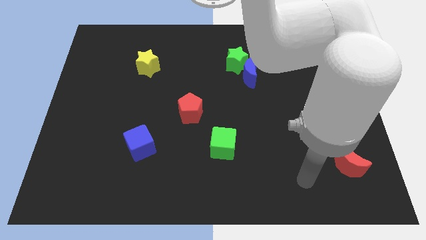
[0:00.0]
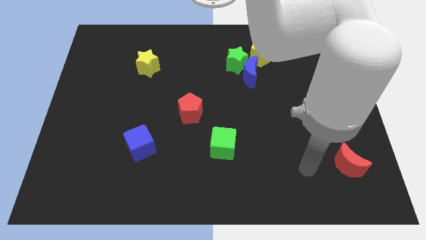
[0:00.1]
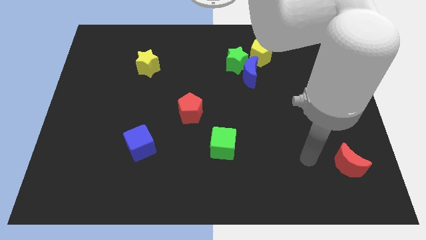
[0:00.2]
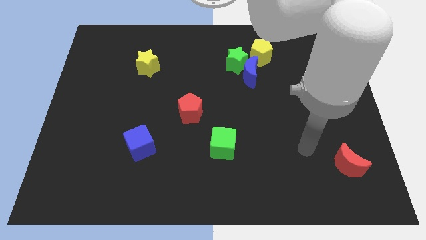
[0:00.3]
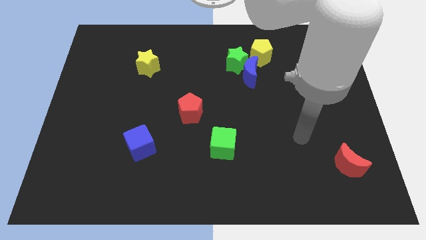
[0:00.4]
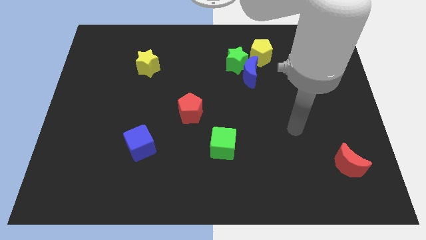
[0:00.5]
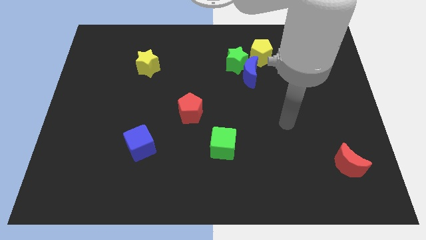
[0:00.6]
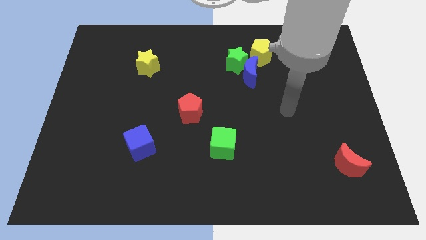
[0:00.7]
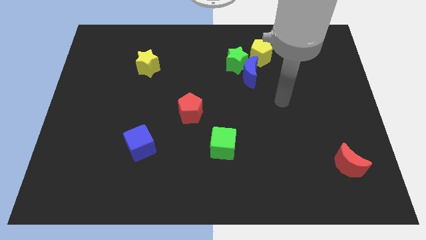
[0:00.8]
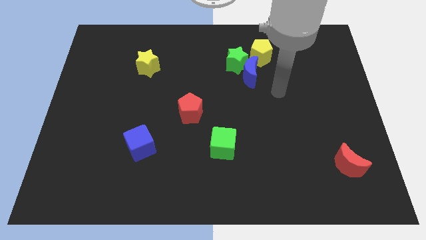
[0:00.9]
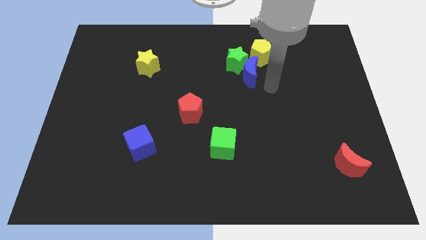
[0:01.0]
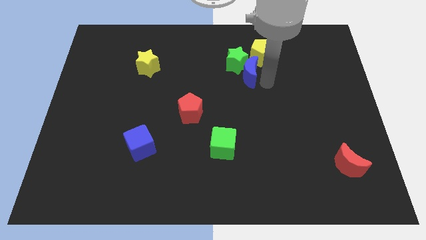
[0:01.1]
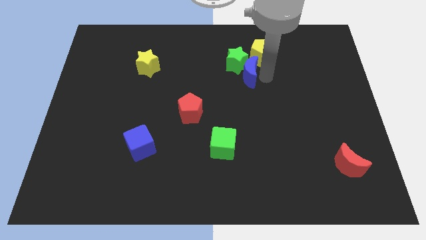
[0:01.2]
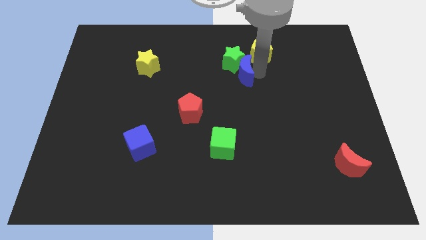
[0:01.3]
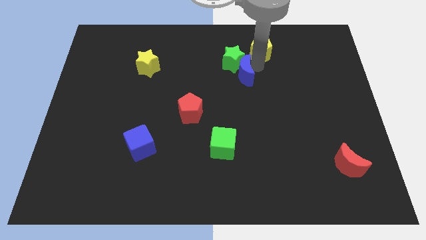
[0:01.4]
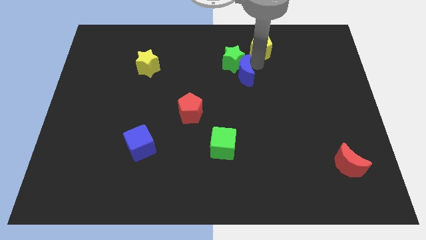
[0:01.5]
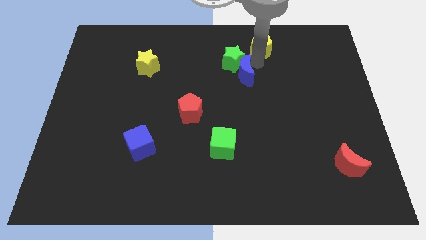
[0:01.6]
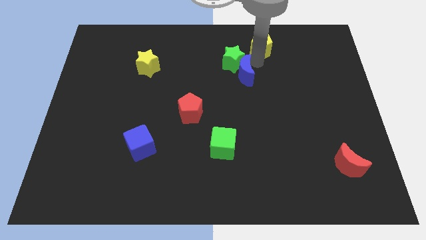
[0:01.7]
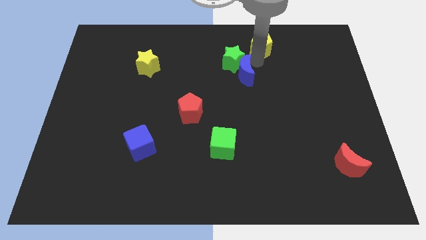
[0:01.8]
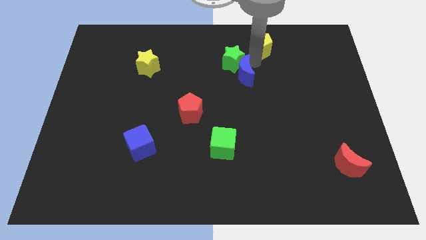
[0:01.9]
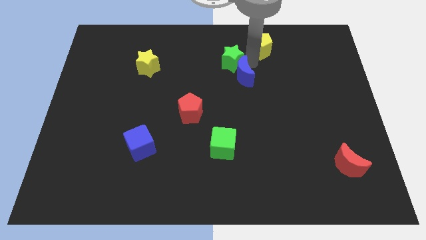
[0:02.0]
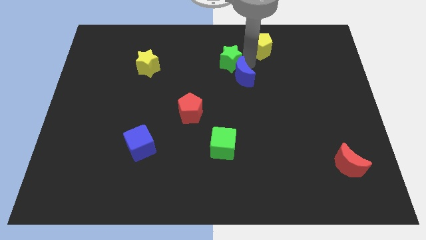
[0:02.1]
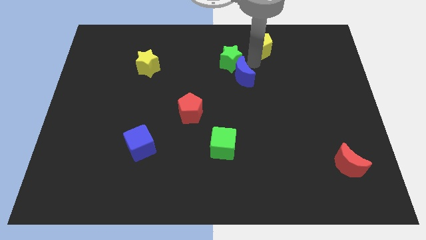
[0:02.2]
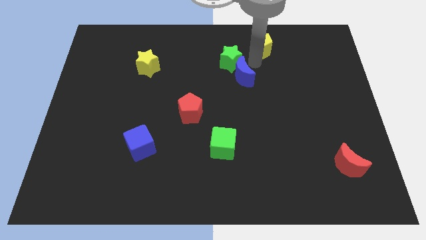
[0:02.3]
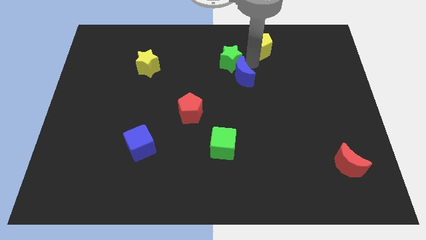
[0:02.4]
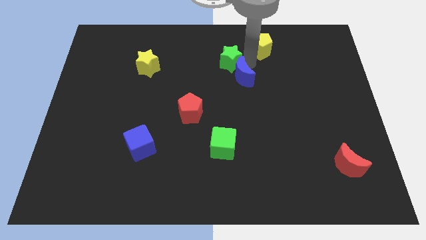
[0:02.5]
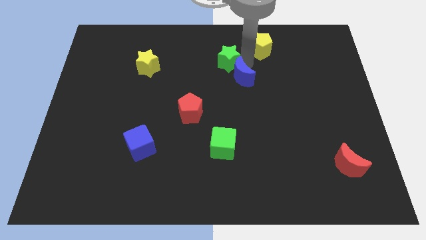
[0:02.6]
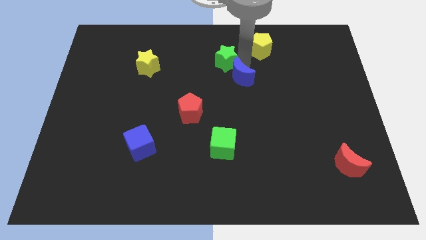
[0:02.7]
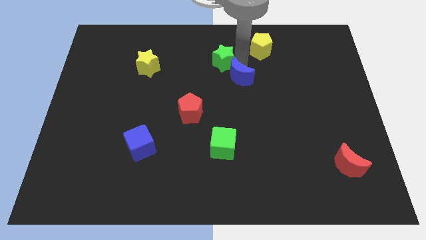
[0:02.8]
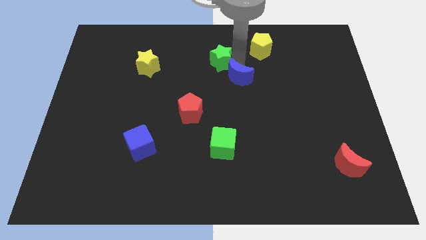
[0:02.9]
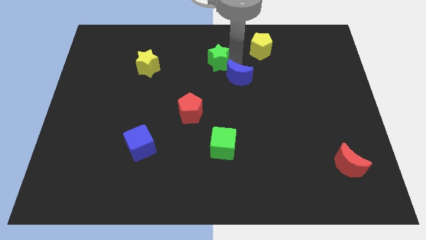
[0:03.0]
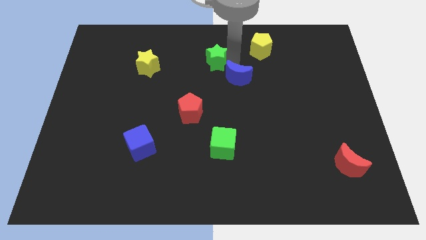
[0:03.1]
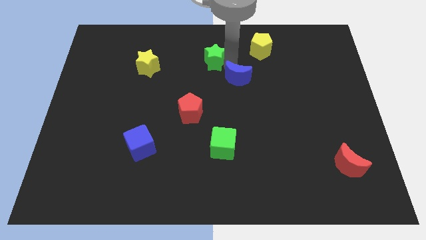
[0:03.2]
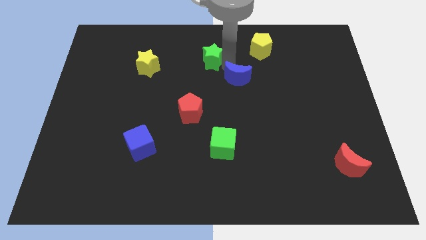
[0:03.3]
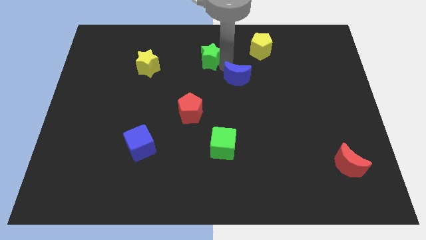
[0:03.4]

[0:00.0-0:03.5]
move the green star away from the blue moon and yellow pentagon

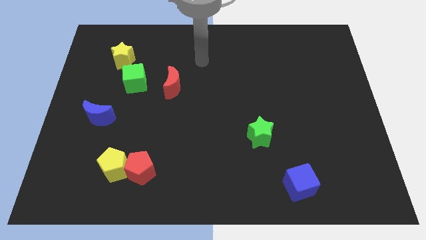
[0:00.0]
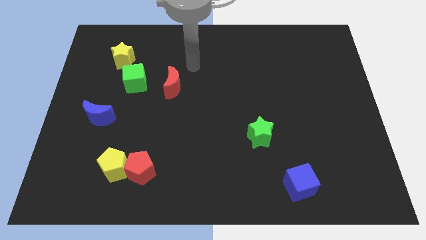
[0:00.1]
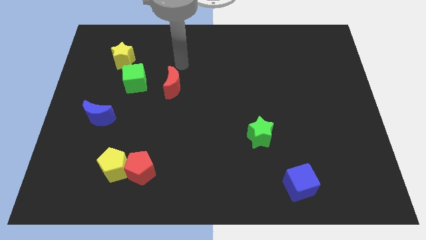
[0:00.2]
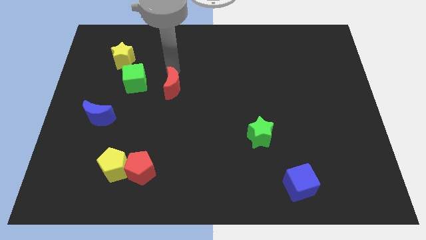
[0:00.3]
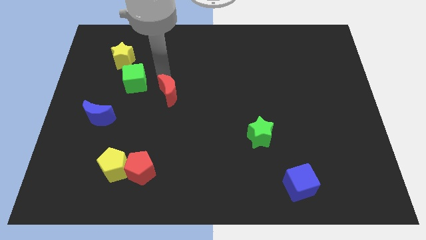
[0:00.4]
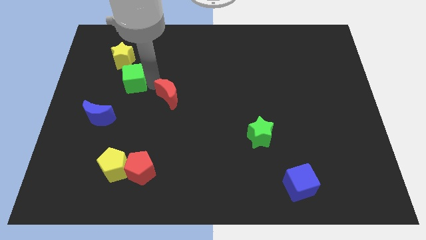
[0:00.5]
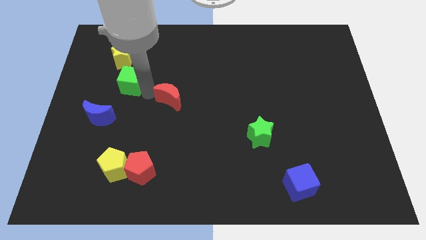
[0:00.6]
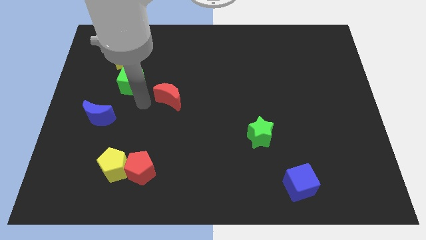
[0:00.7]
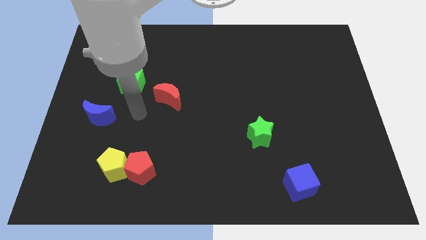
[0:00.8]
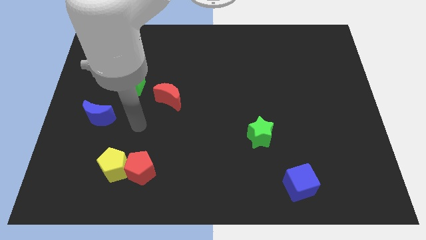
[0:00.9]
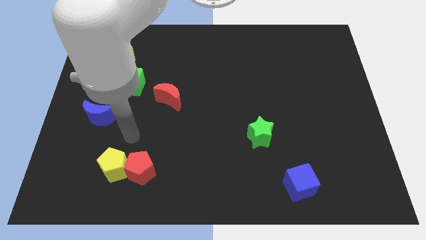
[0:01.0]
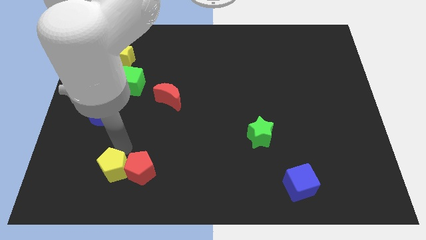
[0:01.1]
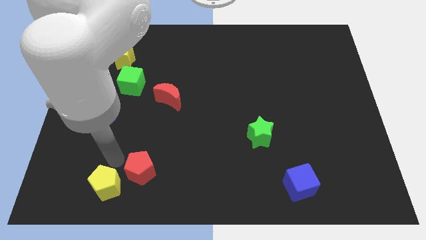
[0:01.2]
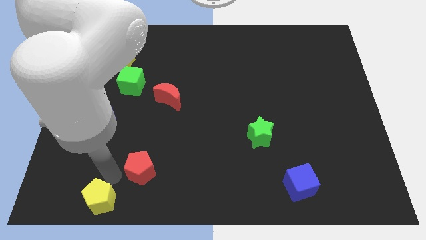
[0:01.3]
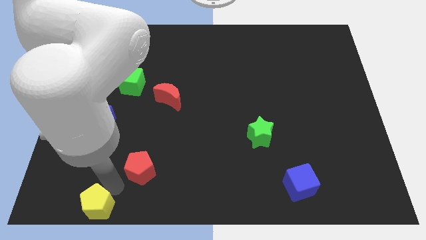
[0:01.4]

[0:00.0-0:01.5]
move the red pentagon away from the yellow pentagon

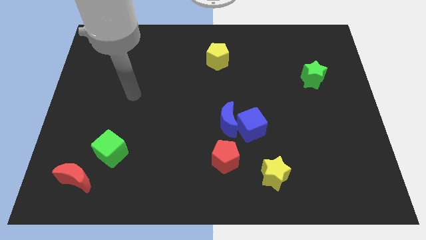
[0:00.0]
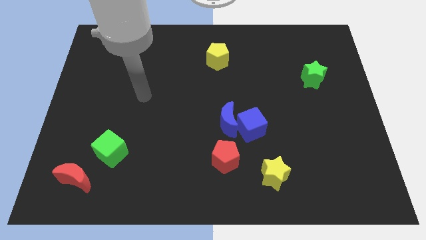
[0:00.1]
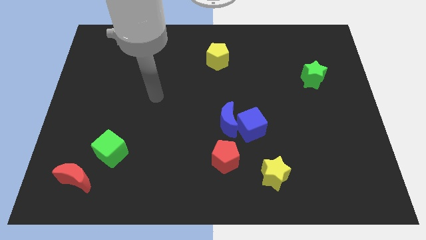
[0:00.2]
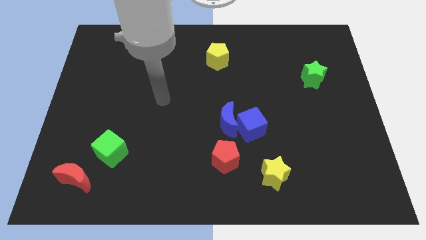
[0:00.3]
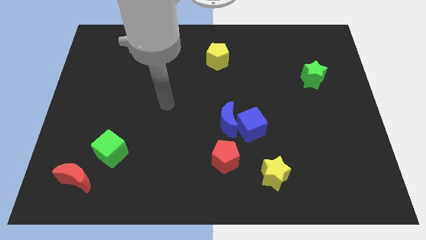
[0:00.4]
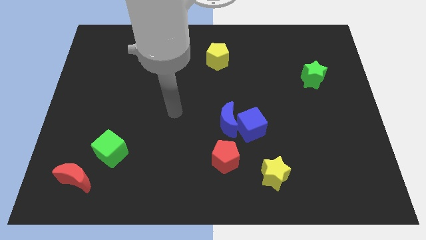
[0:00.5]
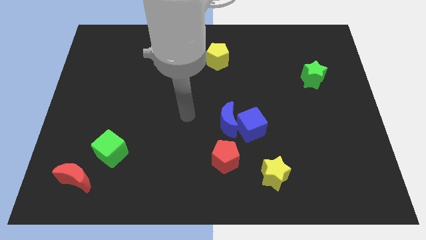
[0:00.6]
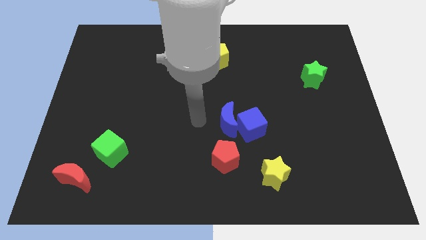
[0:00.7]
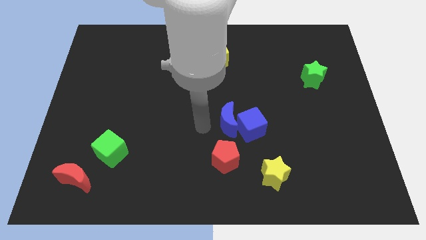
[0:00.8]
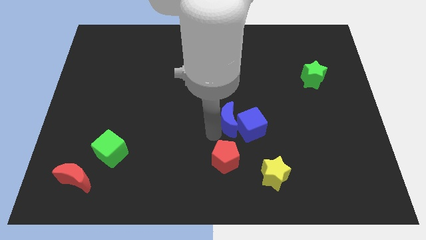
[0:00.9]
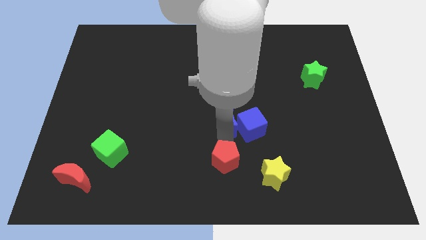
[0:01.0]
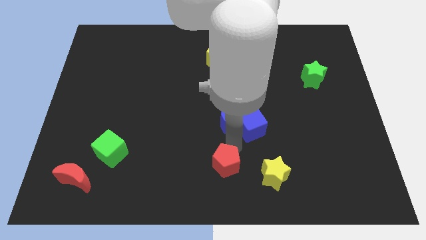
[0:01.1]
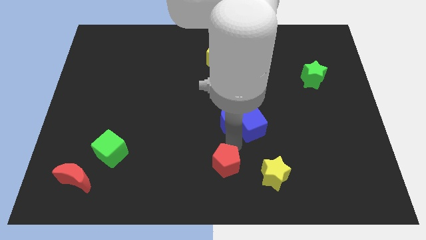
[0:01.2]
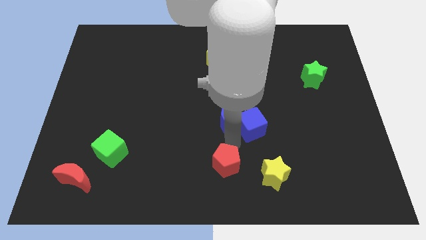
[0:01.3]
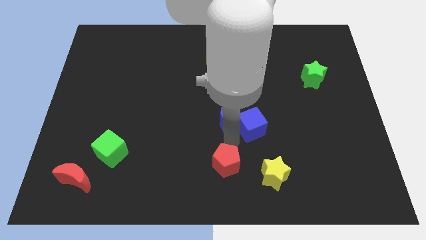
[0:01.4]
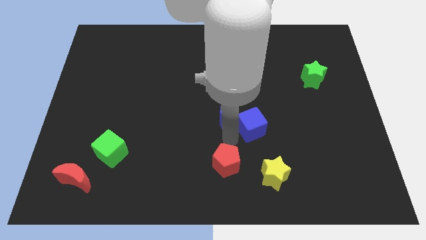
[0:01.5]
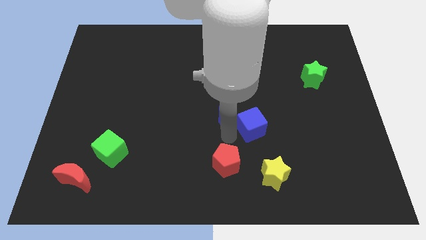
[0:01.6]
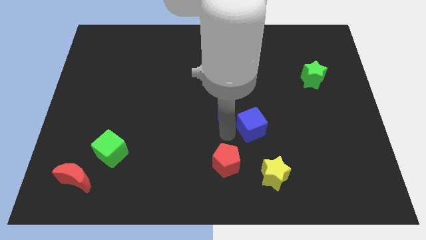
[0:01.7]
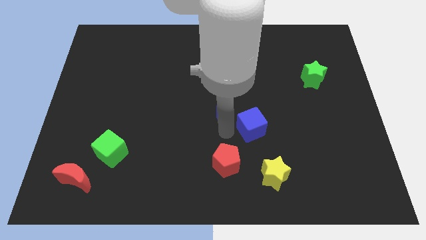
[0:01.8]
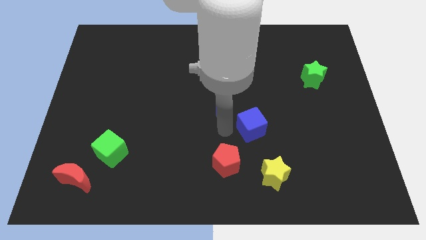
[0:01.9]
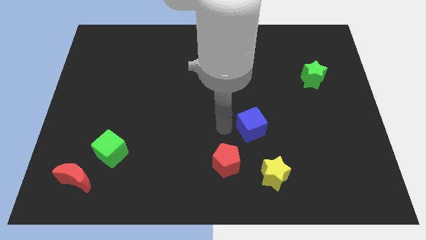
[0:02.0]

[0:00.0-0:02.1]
pull the blue moon apart from the blue cube and red pentagon

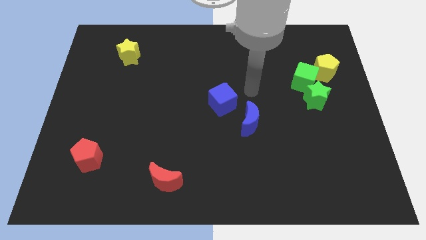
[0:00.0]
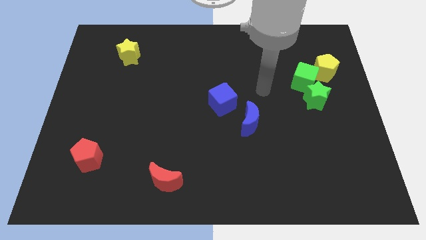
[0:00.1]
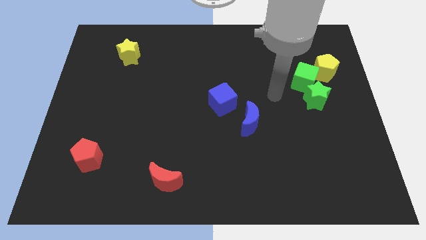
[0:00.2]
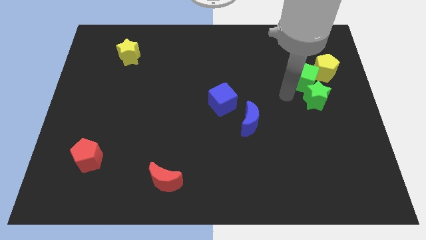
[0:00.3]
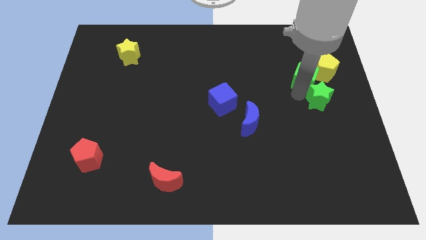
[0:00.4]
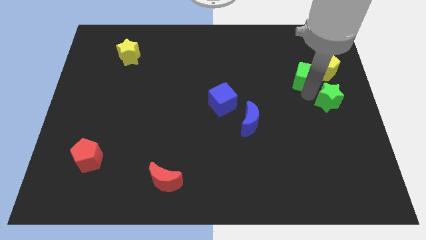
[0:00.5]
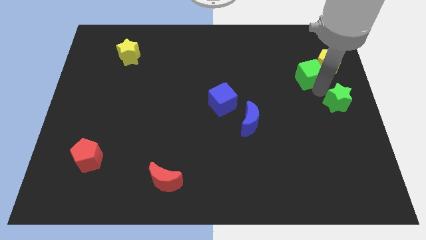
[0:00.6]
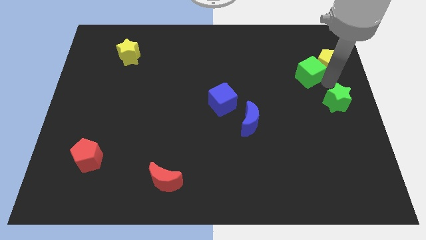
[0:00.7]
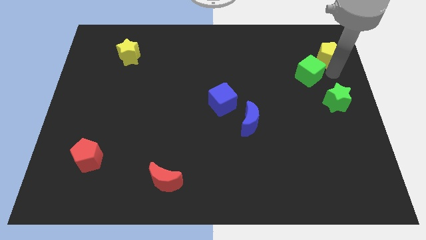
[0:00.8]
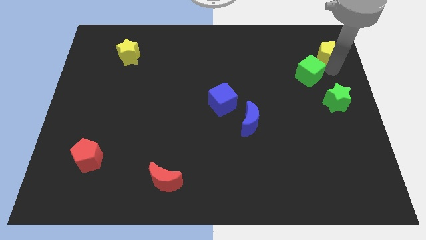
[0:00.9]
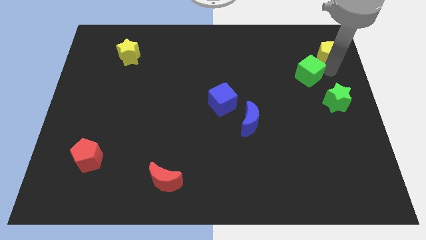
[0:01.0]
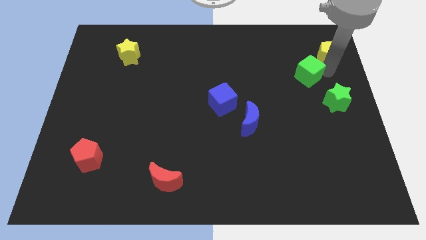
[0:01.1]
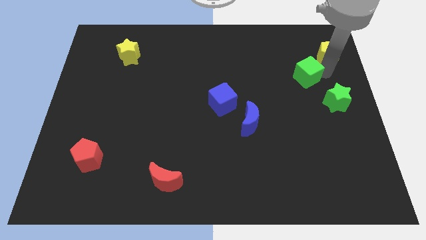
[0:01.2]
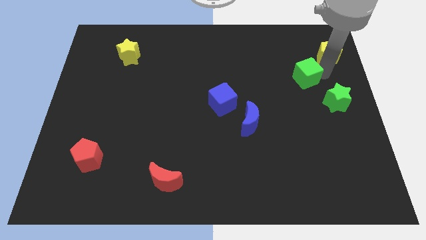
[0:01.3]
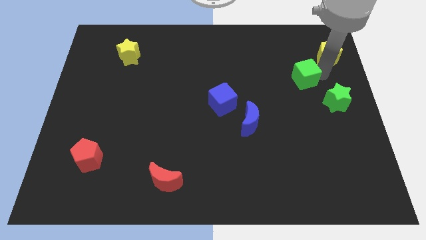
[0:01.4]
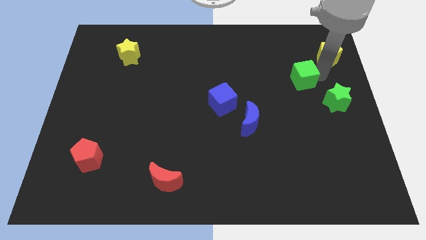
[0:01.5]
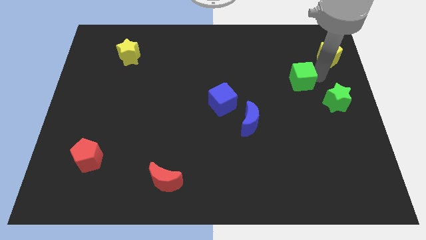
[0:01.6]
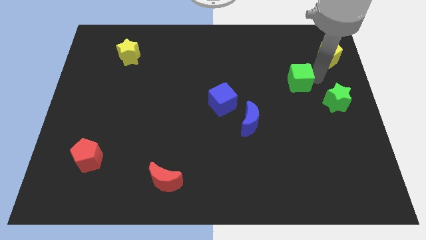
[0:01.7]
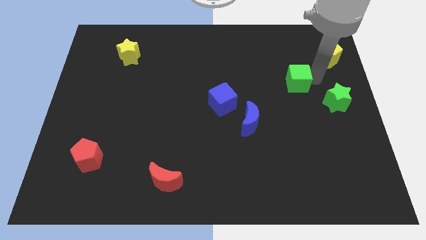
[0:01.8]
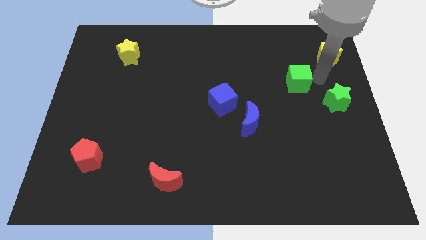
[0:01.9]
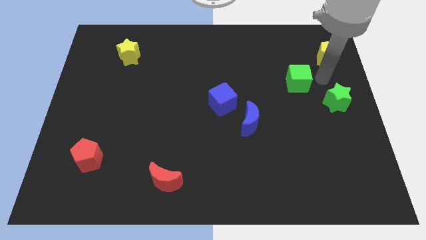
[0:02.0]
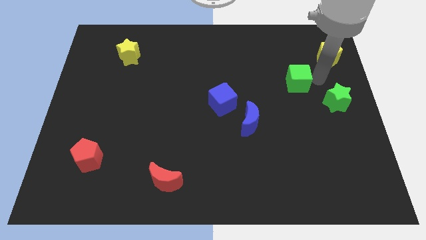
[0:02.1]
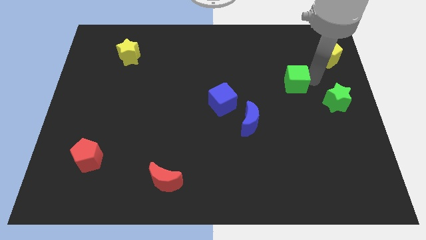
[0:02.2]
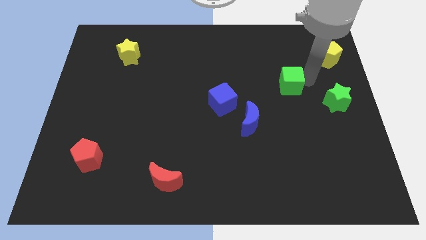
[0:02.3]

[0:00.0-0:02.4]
move the green cube away from the green star and yellow pentagon
